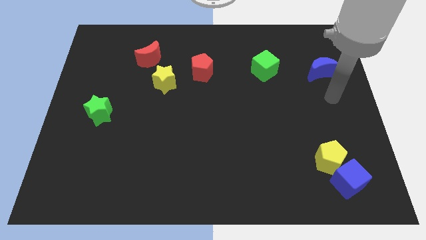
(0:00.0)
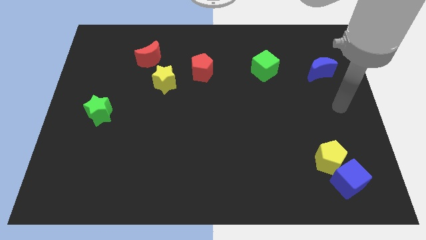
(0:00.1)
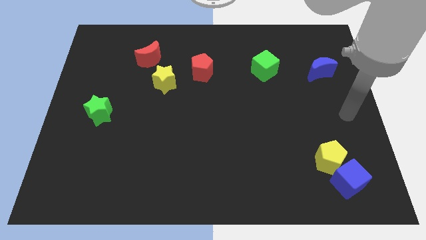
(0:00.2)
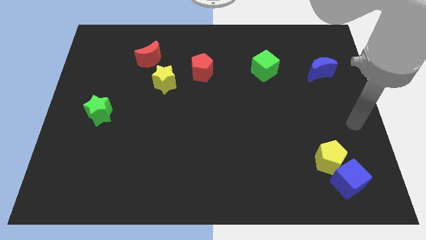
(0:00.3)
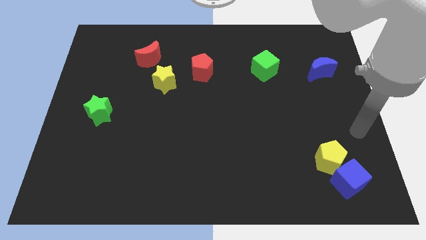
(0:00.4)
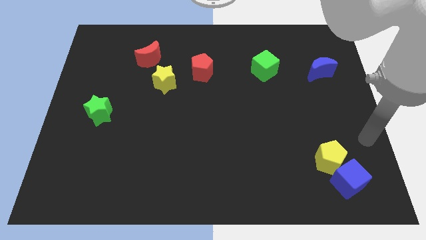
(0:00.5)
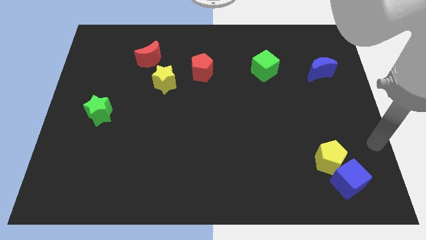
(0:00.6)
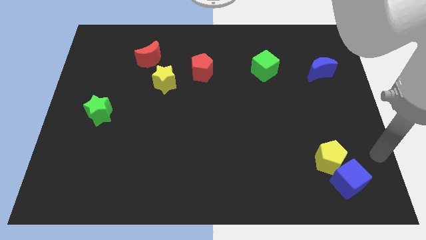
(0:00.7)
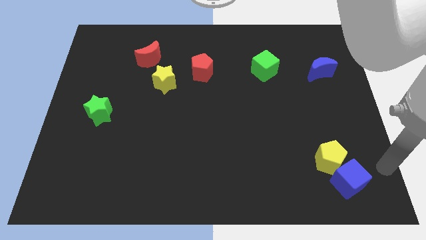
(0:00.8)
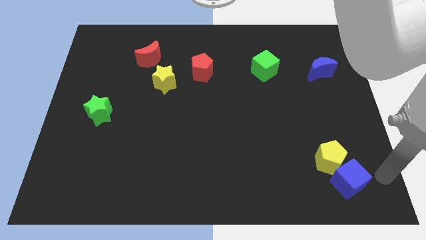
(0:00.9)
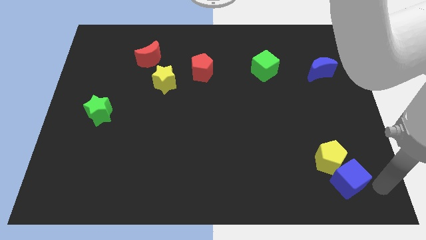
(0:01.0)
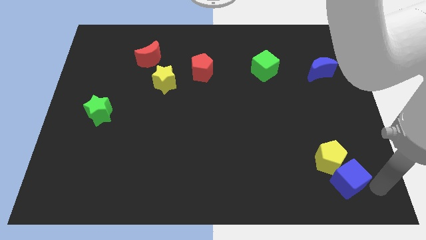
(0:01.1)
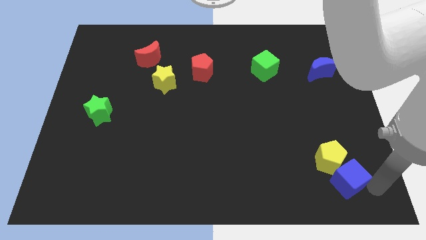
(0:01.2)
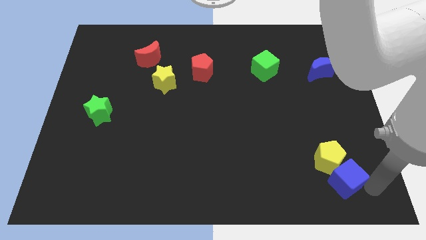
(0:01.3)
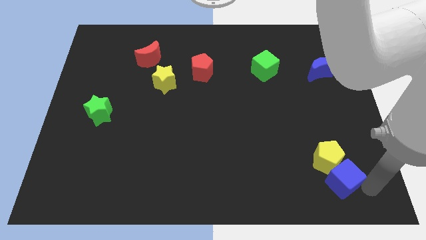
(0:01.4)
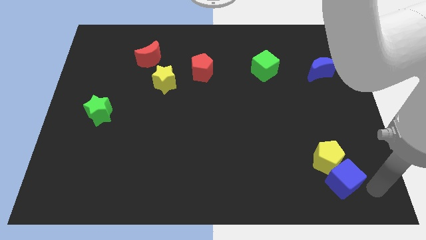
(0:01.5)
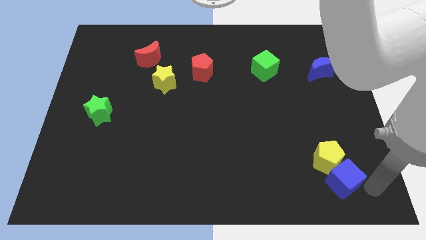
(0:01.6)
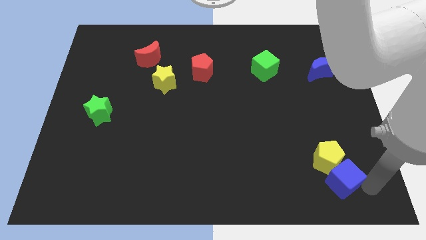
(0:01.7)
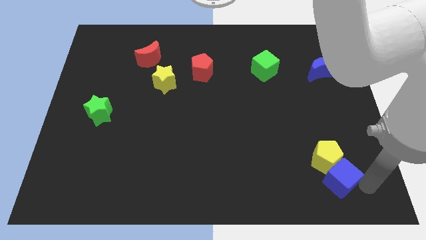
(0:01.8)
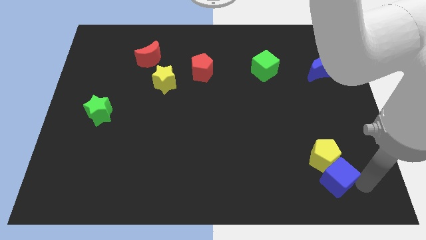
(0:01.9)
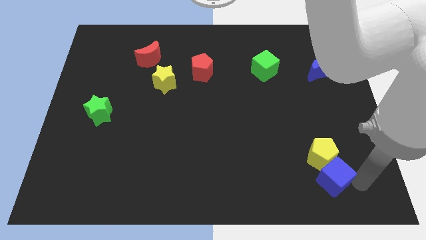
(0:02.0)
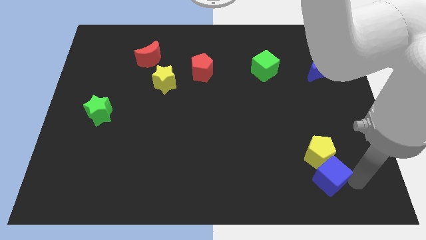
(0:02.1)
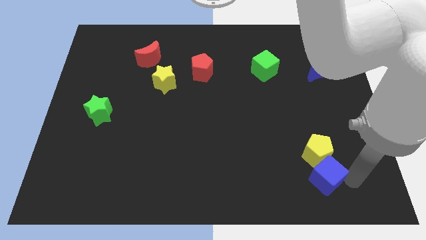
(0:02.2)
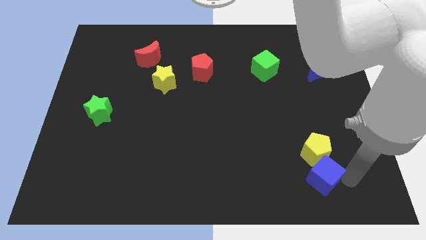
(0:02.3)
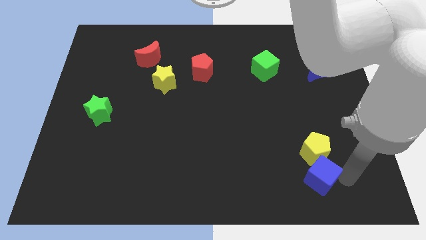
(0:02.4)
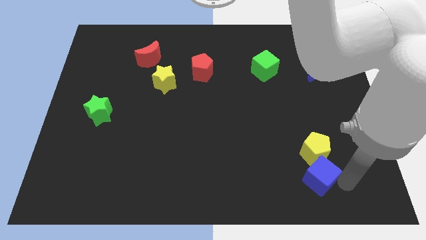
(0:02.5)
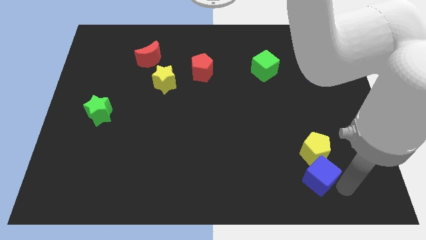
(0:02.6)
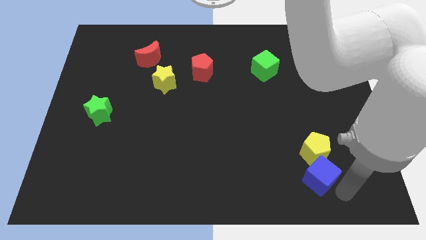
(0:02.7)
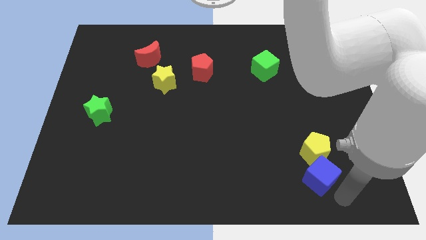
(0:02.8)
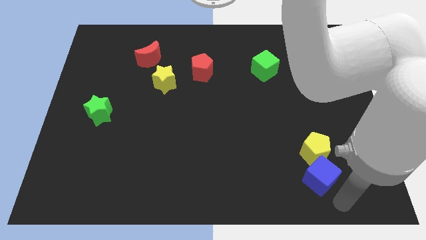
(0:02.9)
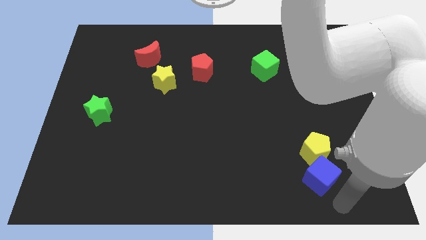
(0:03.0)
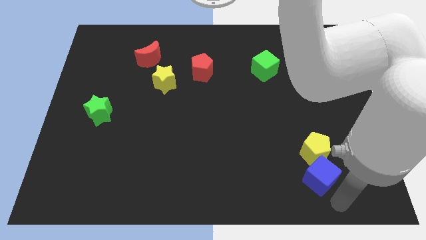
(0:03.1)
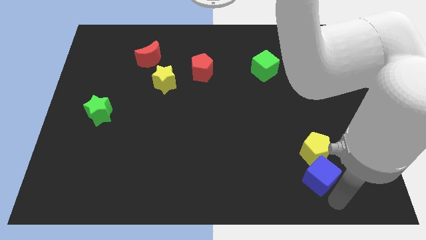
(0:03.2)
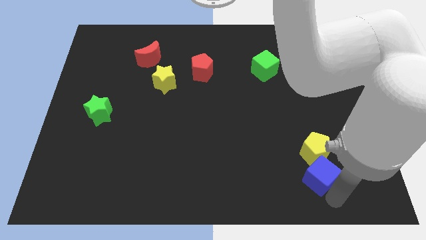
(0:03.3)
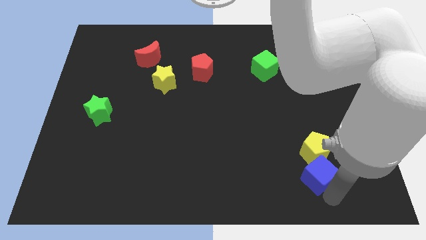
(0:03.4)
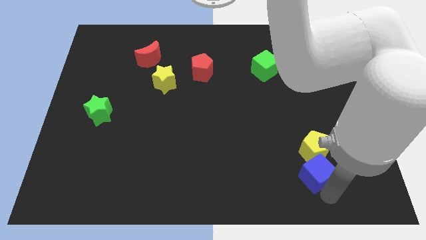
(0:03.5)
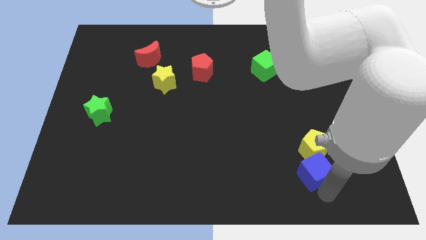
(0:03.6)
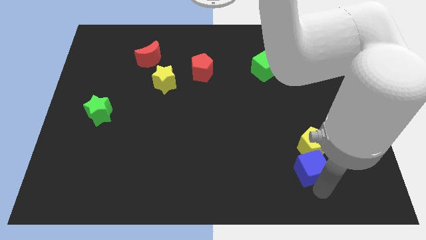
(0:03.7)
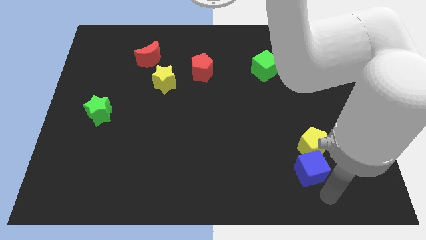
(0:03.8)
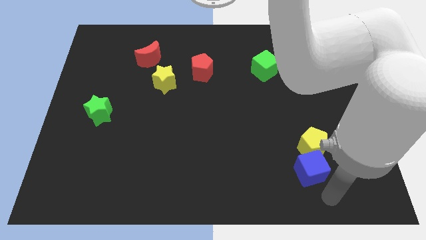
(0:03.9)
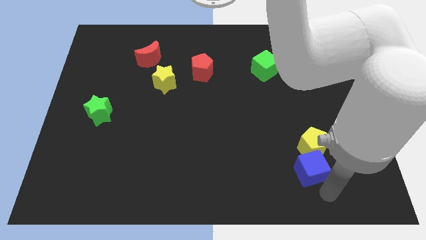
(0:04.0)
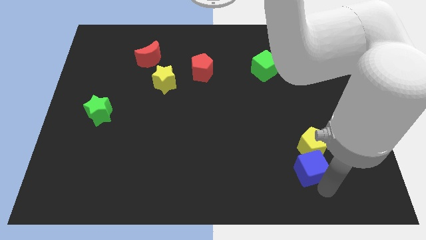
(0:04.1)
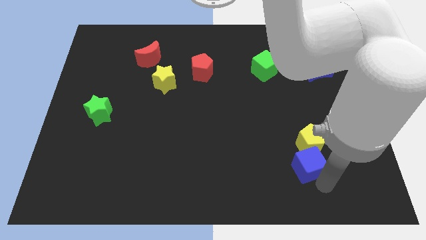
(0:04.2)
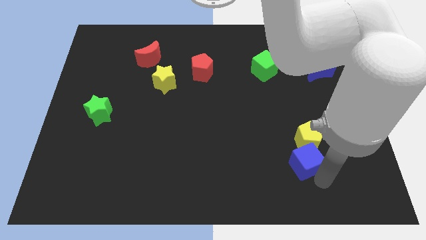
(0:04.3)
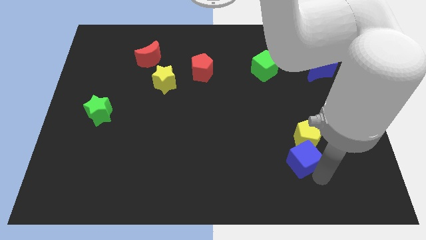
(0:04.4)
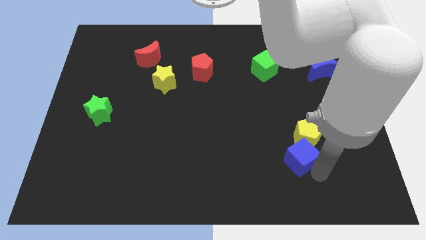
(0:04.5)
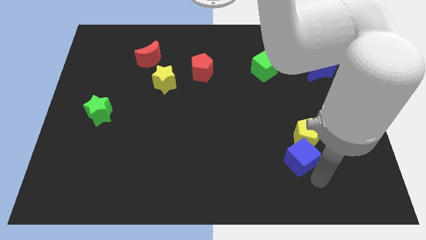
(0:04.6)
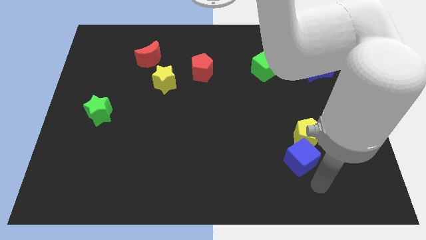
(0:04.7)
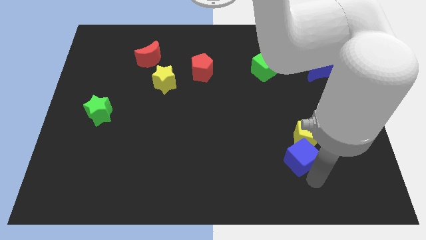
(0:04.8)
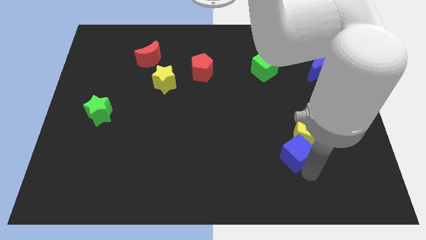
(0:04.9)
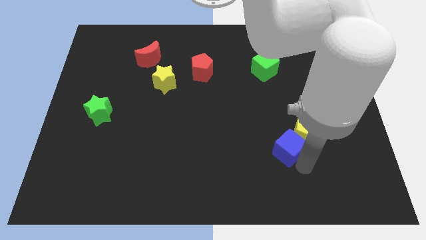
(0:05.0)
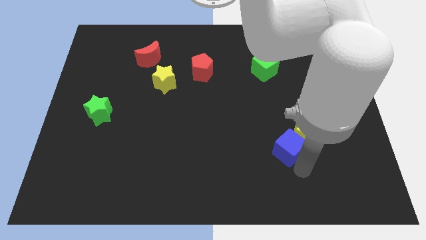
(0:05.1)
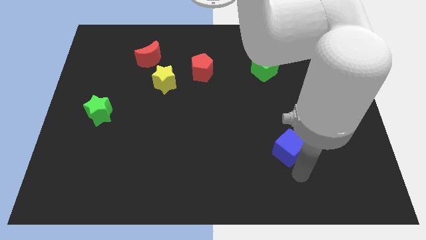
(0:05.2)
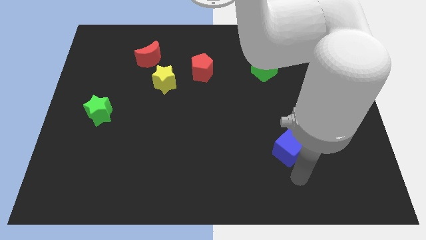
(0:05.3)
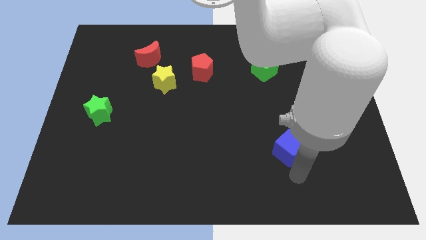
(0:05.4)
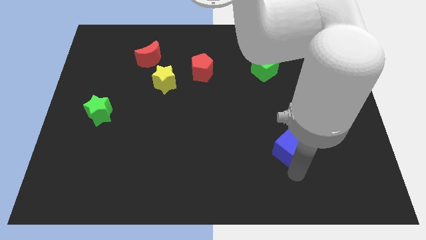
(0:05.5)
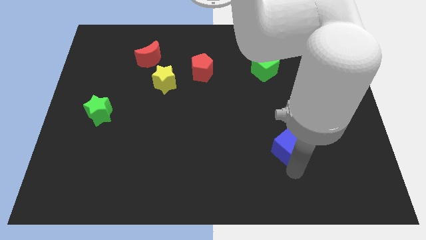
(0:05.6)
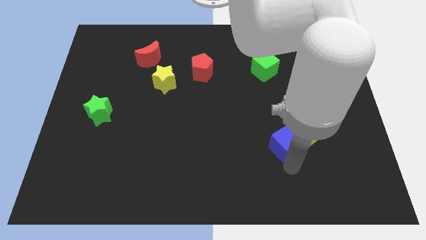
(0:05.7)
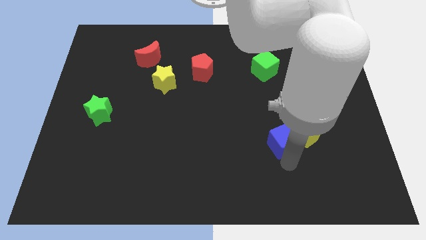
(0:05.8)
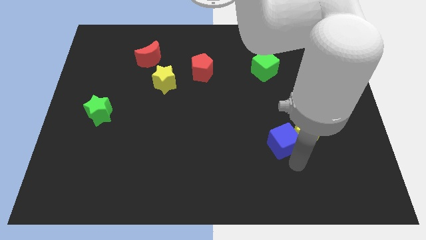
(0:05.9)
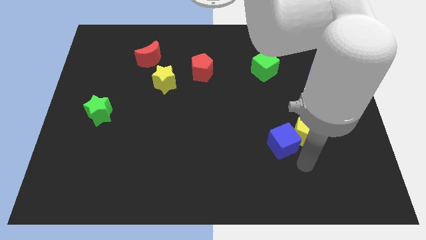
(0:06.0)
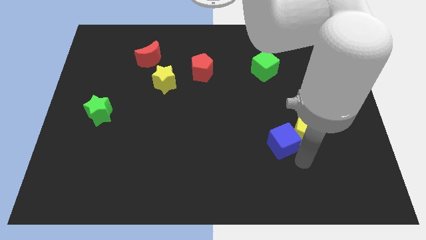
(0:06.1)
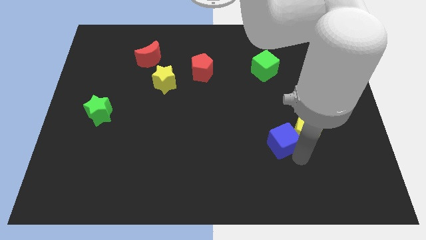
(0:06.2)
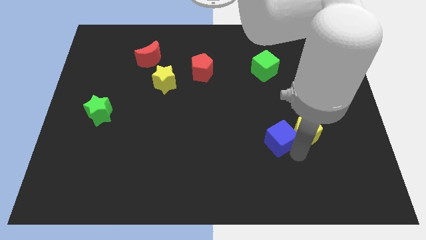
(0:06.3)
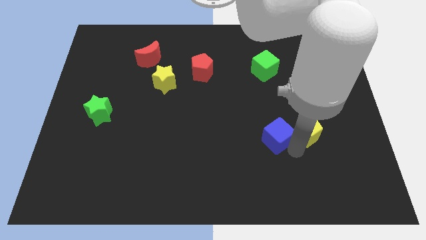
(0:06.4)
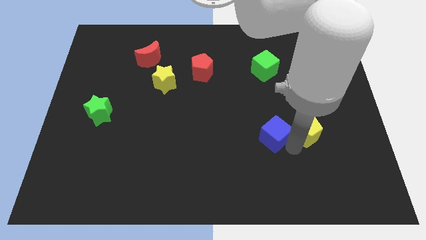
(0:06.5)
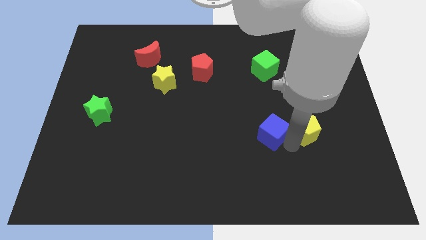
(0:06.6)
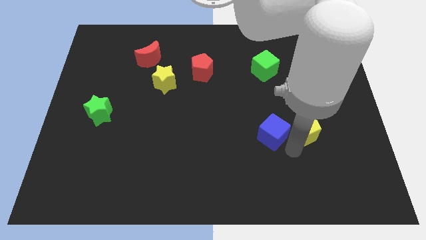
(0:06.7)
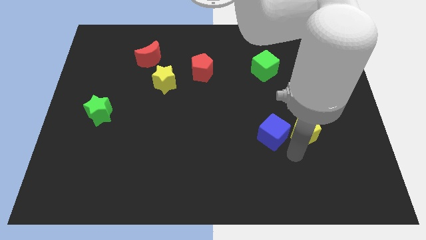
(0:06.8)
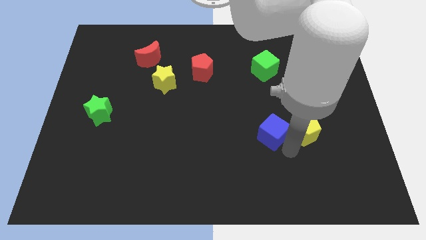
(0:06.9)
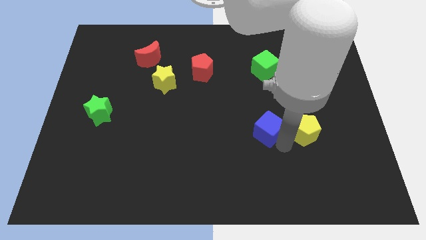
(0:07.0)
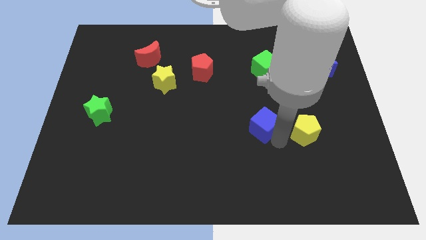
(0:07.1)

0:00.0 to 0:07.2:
push the blue cube upwards and then left

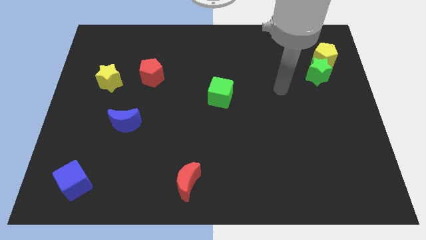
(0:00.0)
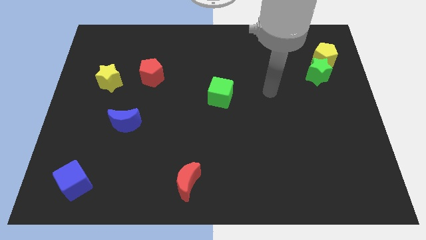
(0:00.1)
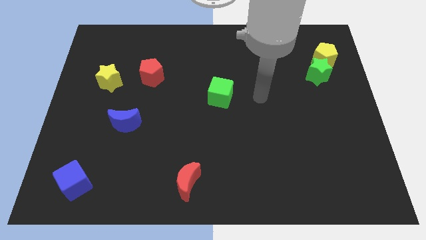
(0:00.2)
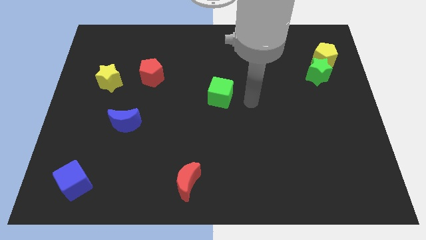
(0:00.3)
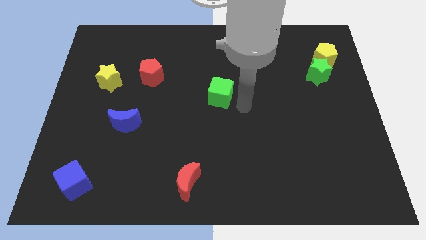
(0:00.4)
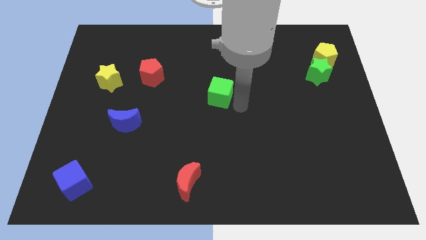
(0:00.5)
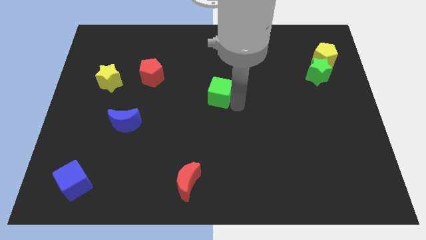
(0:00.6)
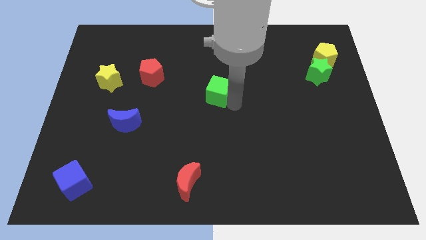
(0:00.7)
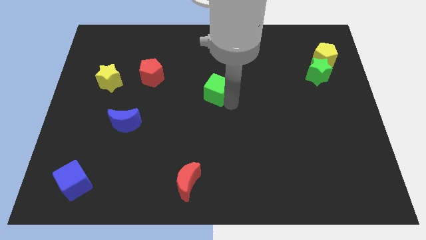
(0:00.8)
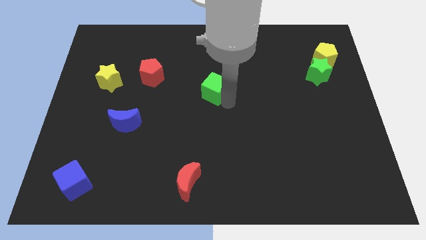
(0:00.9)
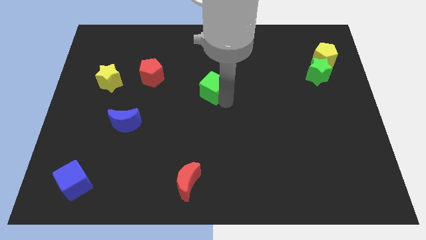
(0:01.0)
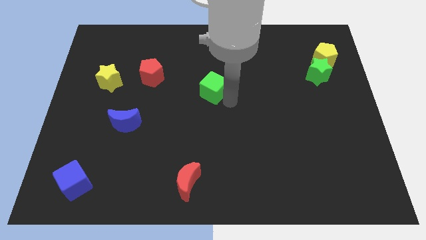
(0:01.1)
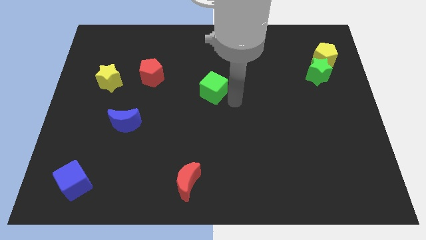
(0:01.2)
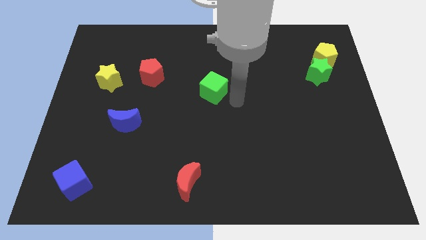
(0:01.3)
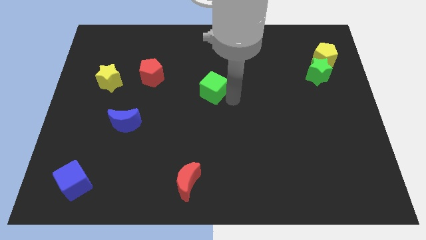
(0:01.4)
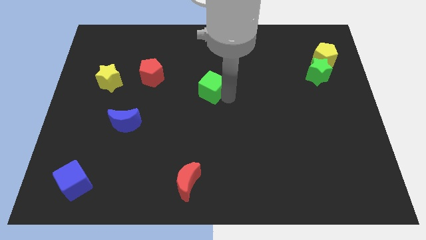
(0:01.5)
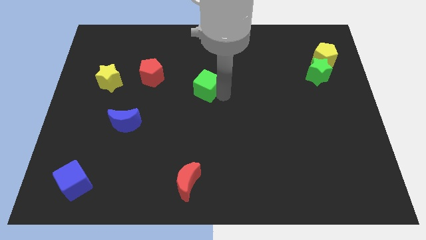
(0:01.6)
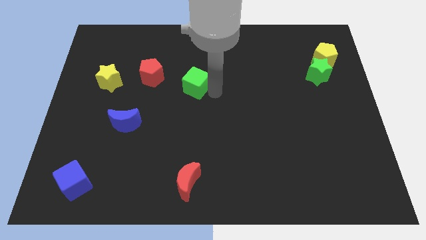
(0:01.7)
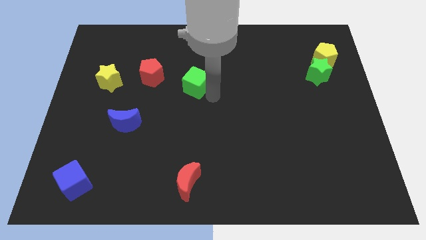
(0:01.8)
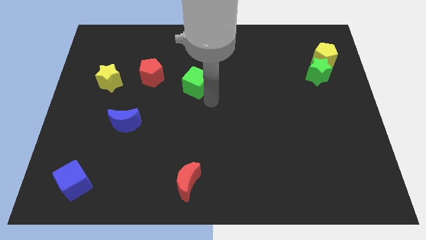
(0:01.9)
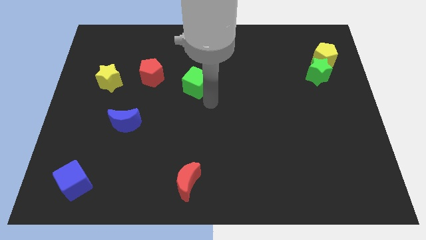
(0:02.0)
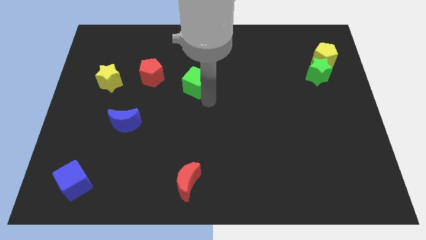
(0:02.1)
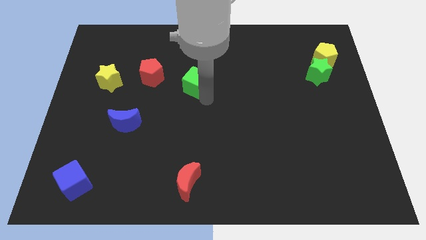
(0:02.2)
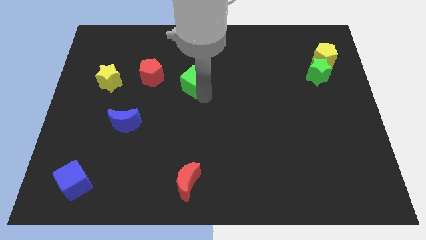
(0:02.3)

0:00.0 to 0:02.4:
slightly slide the green cube diagonally upwards and to the left
